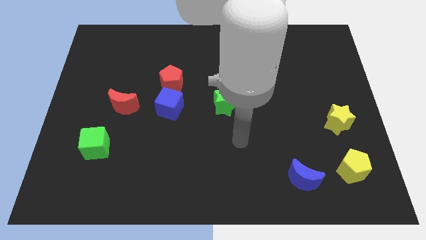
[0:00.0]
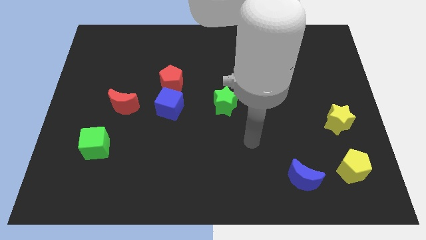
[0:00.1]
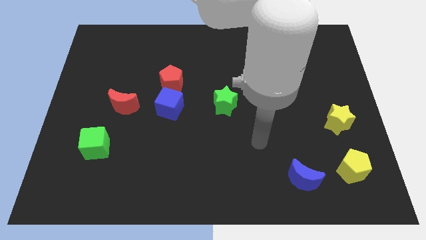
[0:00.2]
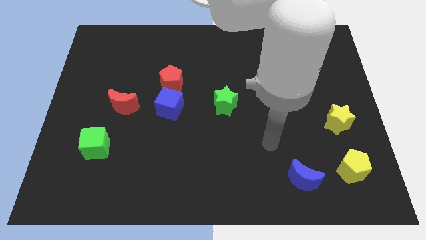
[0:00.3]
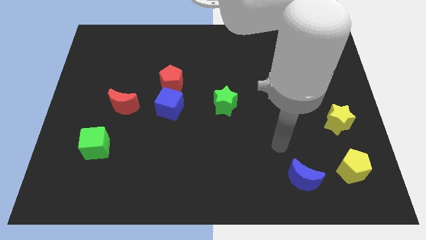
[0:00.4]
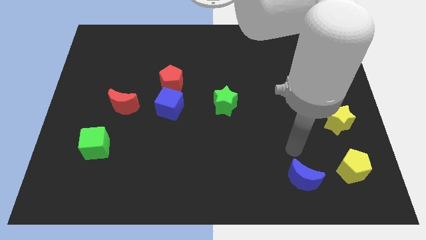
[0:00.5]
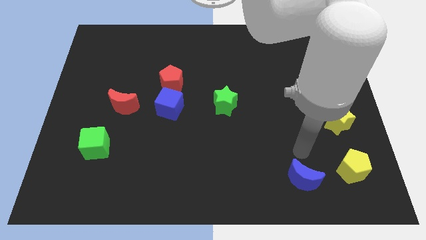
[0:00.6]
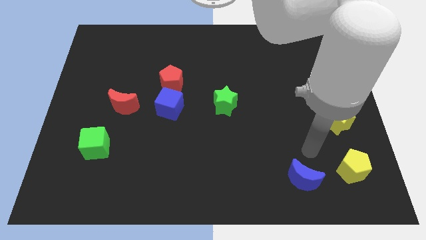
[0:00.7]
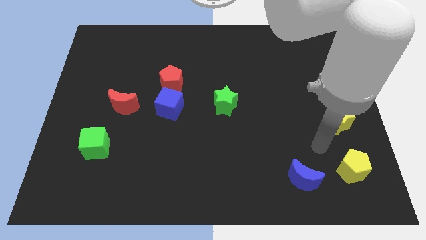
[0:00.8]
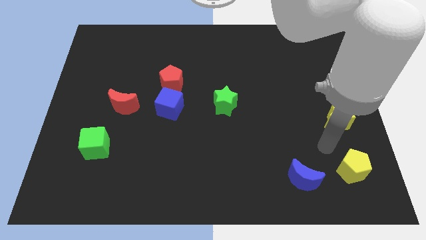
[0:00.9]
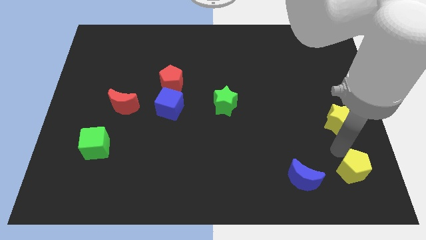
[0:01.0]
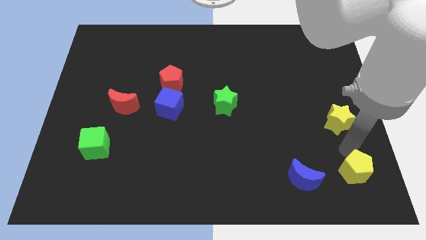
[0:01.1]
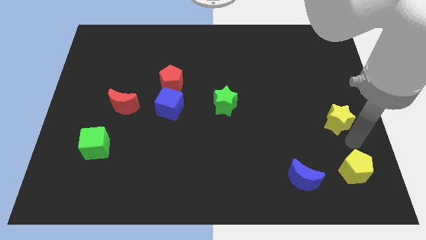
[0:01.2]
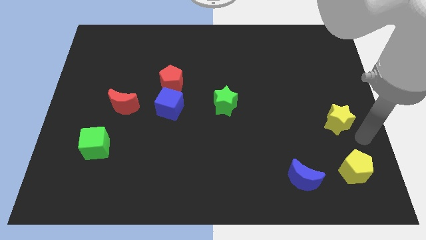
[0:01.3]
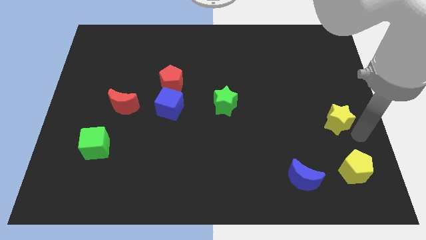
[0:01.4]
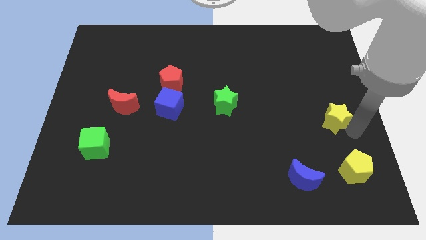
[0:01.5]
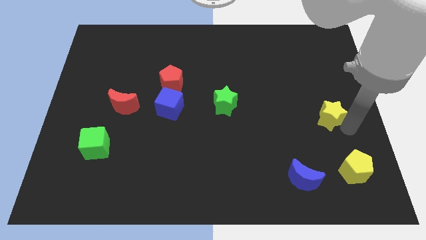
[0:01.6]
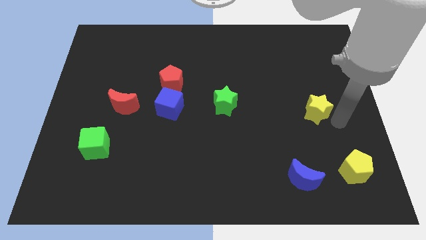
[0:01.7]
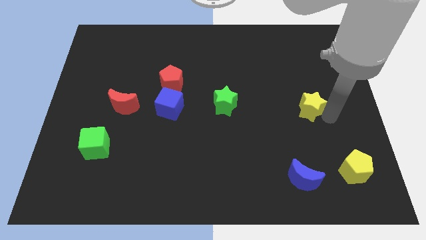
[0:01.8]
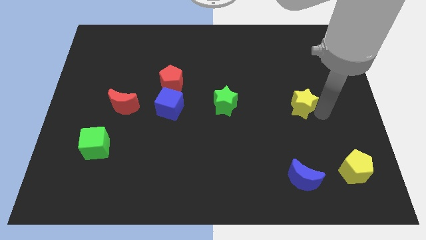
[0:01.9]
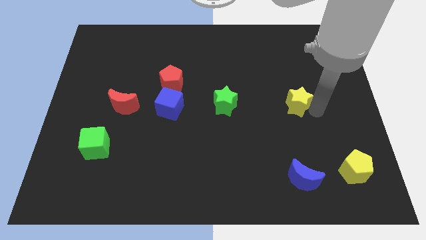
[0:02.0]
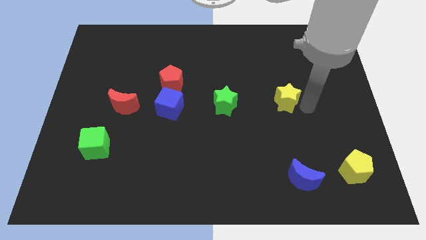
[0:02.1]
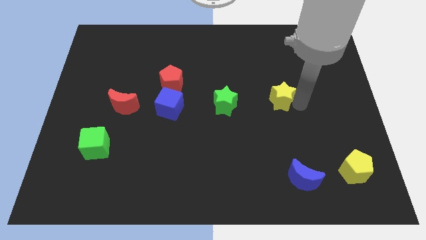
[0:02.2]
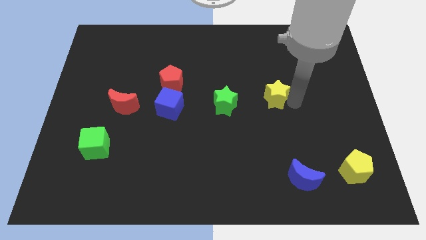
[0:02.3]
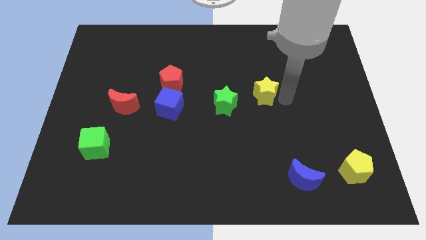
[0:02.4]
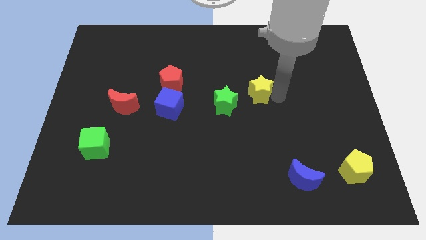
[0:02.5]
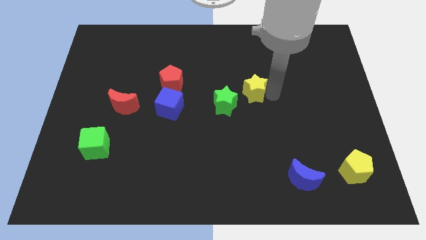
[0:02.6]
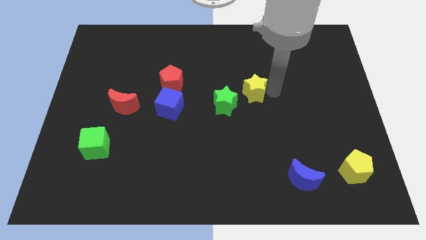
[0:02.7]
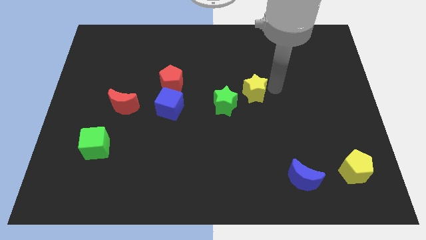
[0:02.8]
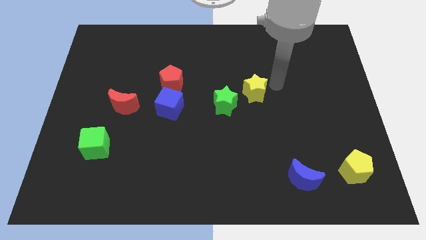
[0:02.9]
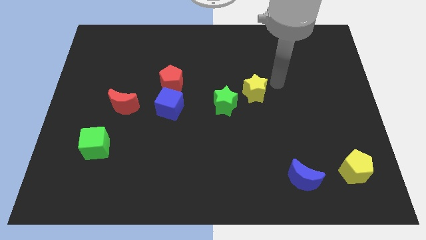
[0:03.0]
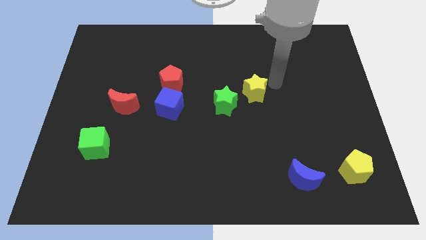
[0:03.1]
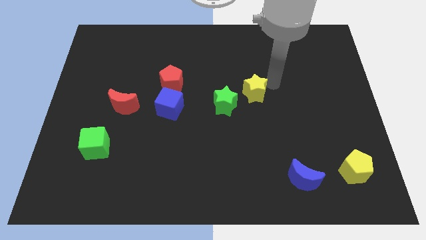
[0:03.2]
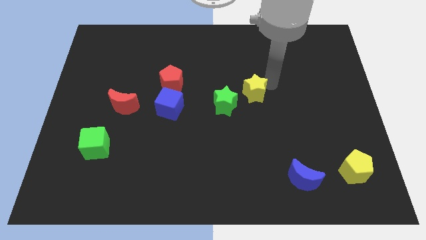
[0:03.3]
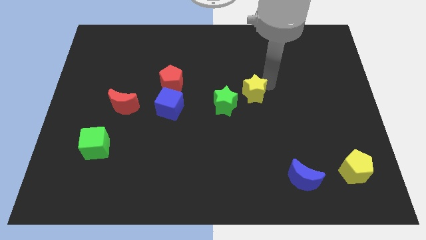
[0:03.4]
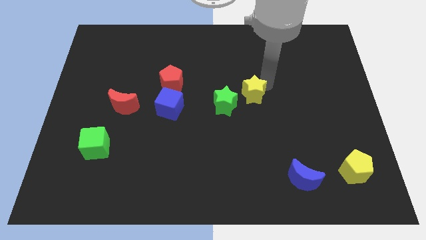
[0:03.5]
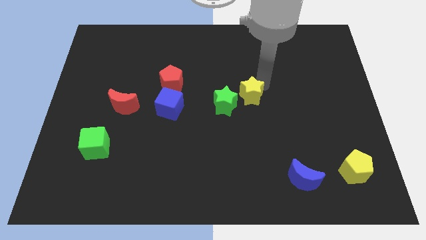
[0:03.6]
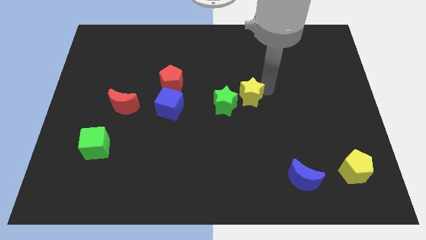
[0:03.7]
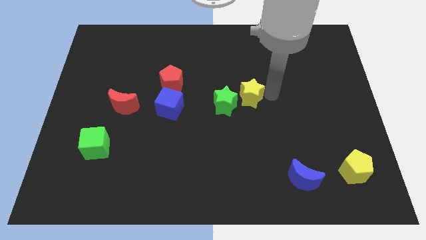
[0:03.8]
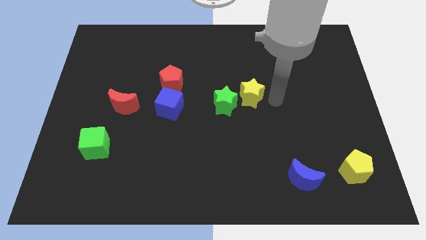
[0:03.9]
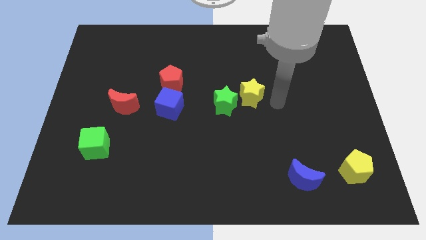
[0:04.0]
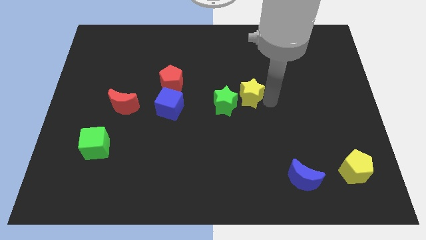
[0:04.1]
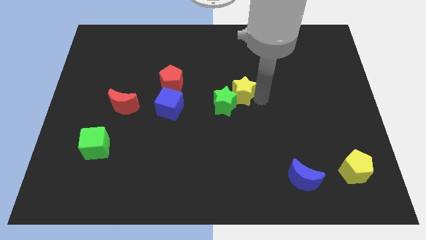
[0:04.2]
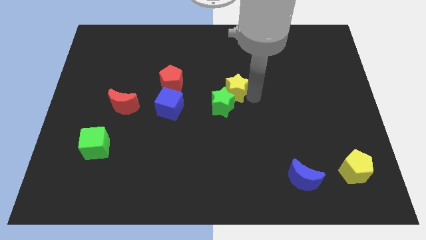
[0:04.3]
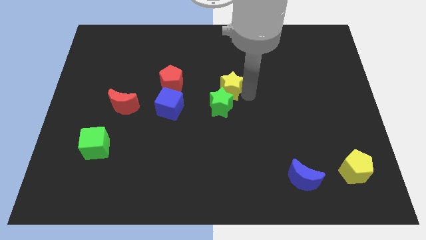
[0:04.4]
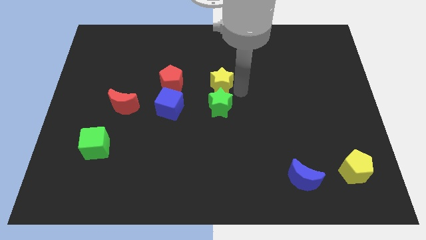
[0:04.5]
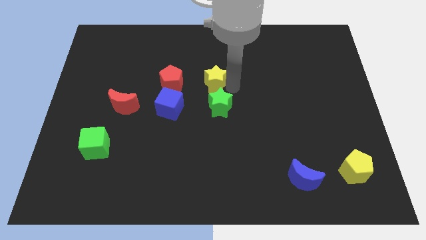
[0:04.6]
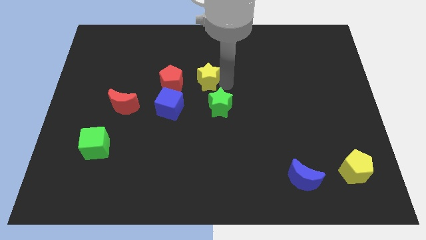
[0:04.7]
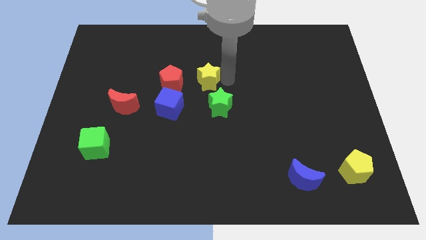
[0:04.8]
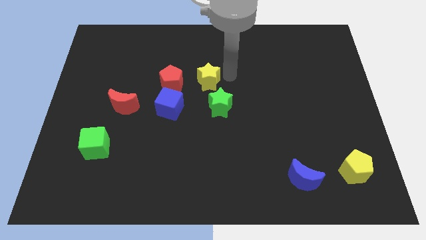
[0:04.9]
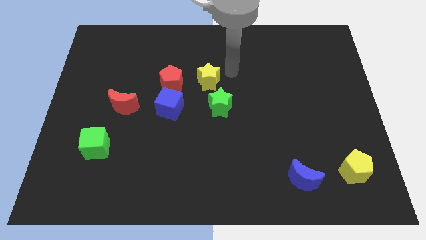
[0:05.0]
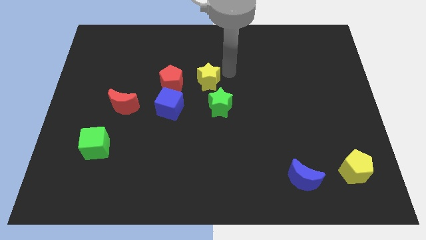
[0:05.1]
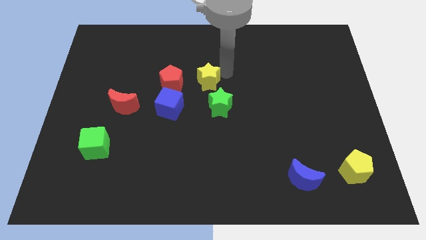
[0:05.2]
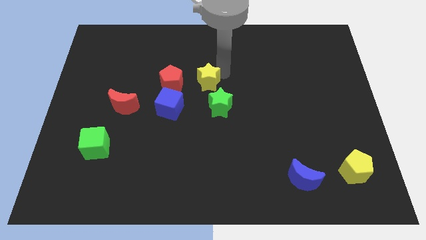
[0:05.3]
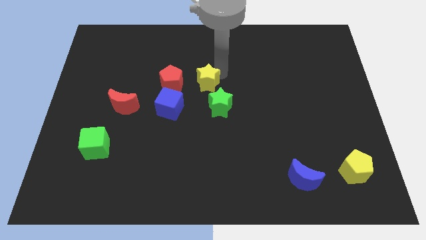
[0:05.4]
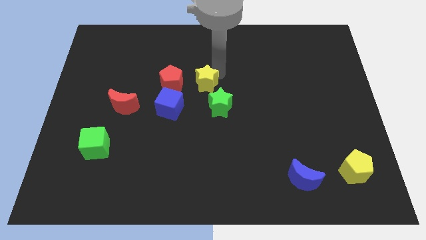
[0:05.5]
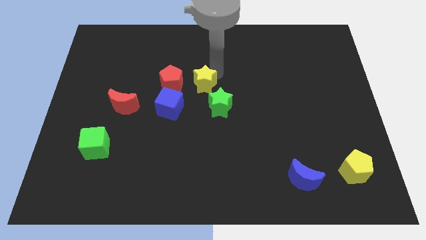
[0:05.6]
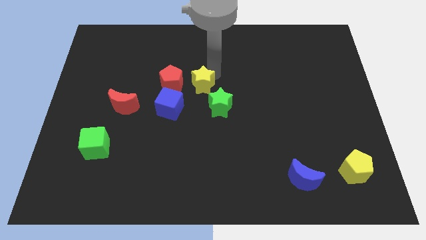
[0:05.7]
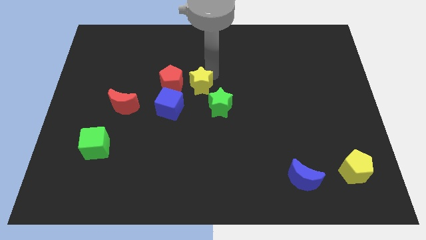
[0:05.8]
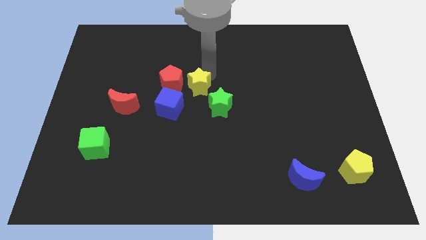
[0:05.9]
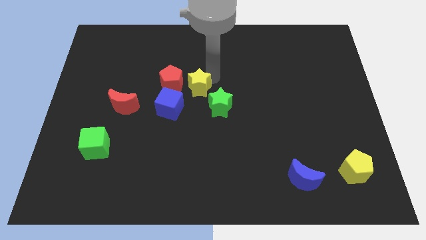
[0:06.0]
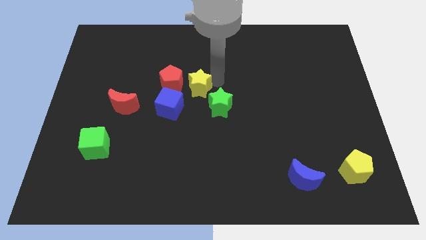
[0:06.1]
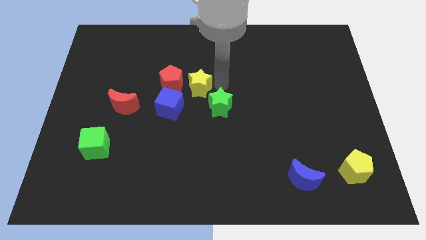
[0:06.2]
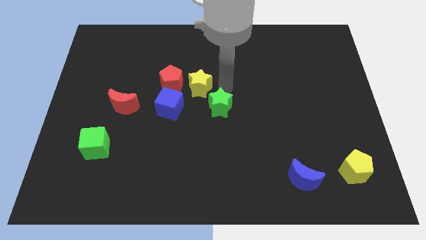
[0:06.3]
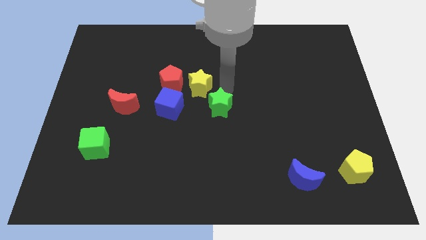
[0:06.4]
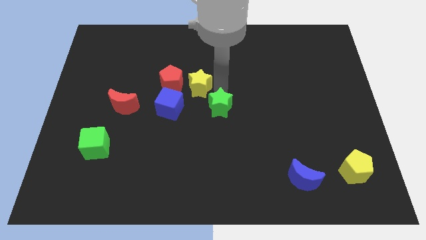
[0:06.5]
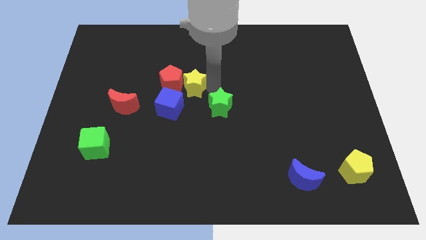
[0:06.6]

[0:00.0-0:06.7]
slide the yellow star next to the red pentagon
